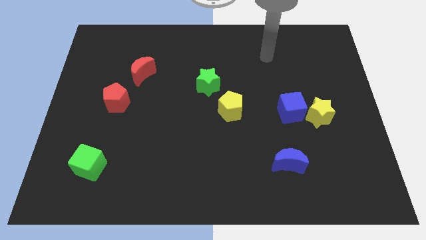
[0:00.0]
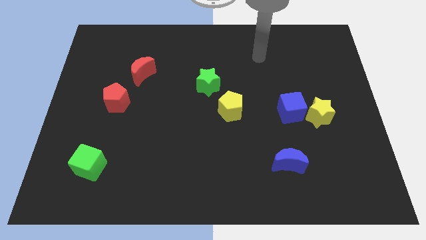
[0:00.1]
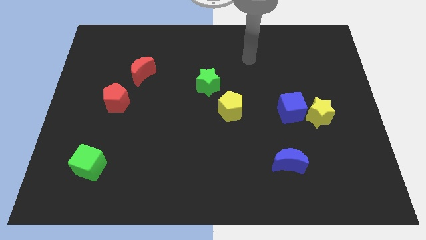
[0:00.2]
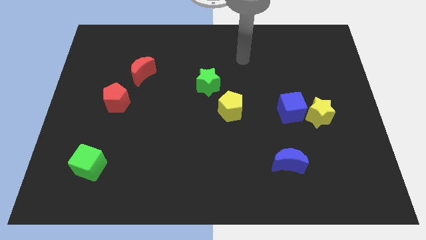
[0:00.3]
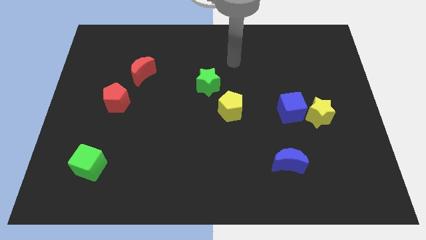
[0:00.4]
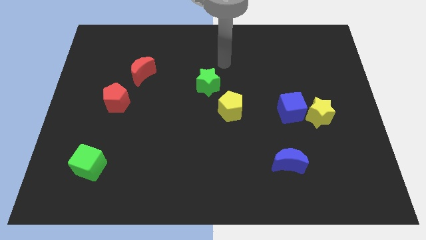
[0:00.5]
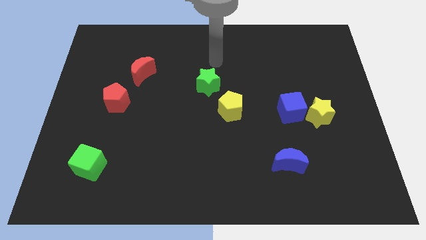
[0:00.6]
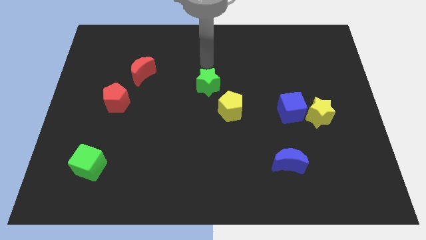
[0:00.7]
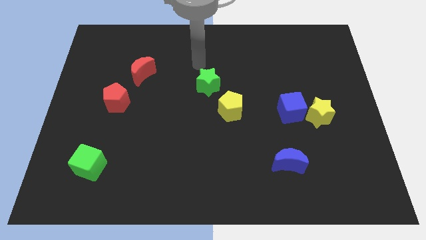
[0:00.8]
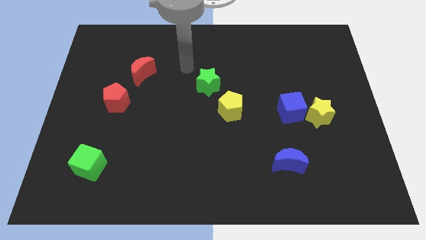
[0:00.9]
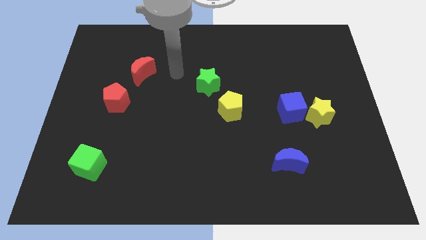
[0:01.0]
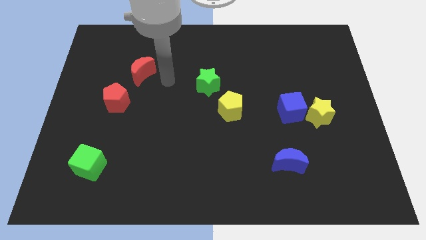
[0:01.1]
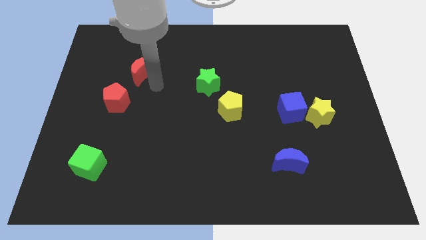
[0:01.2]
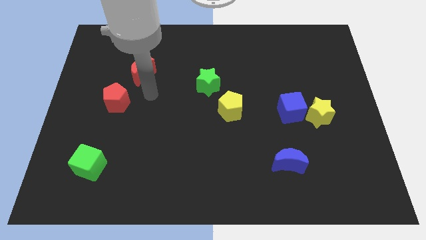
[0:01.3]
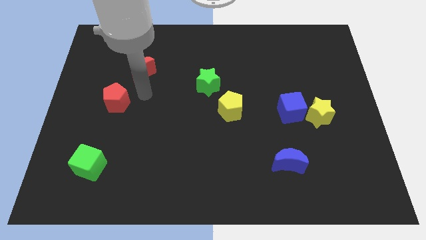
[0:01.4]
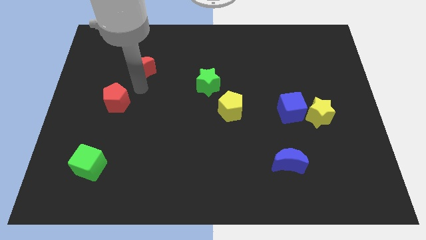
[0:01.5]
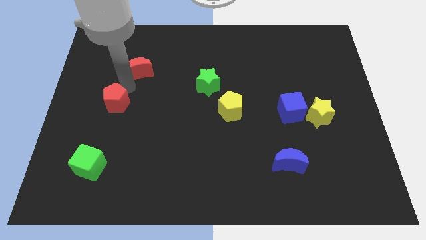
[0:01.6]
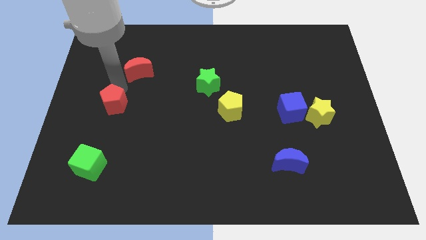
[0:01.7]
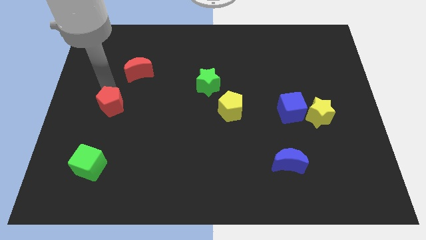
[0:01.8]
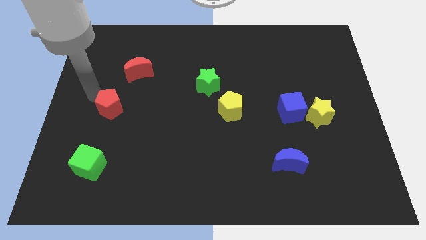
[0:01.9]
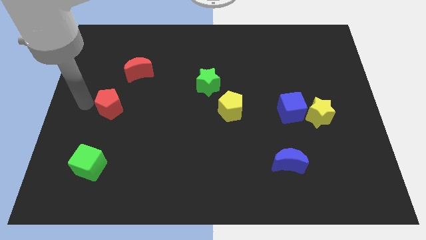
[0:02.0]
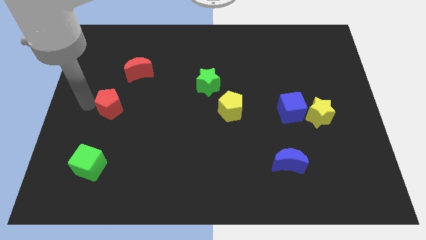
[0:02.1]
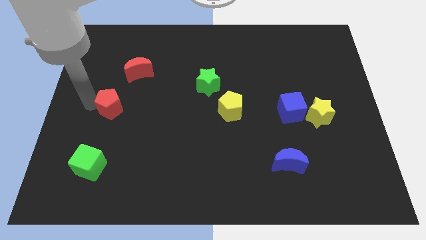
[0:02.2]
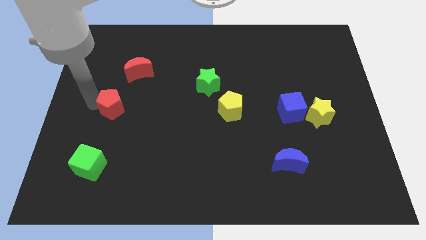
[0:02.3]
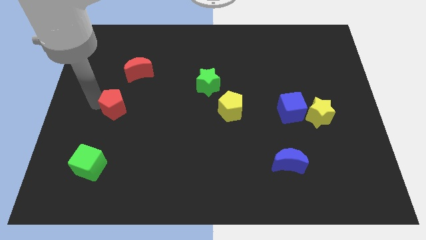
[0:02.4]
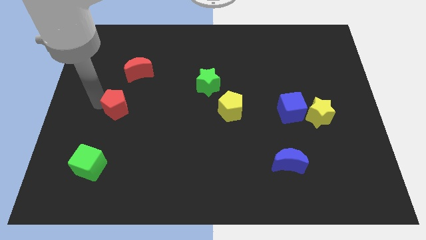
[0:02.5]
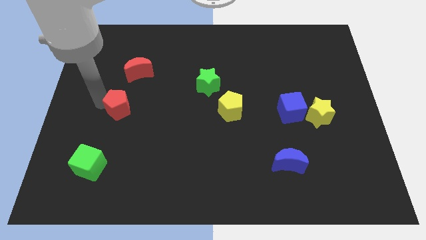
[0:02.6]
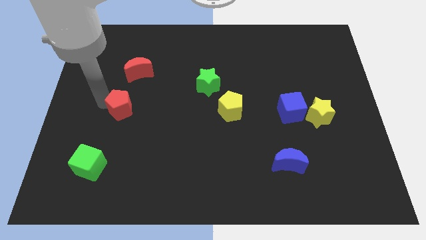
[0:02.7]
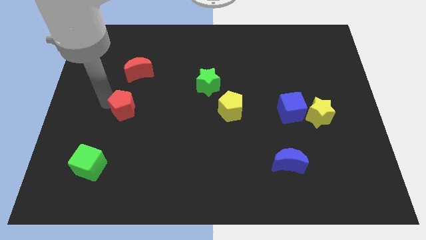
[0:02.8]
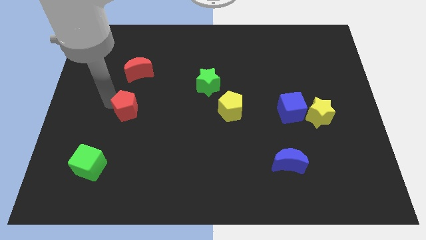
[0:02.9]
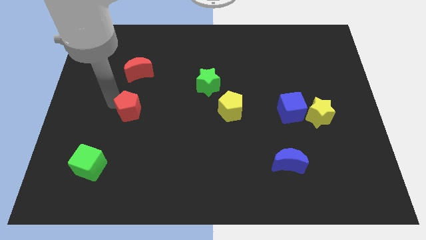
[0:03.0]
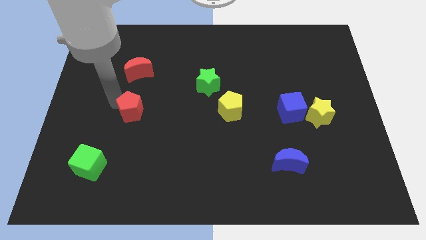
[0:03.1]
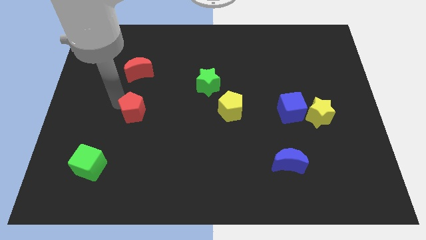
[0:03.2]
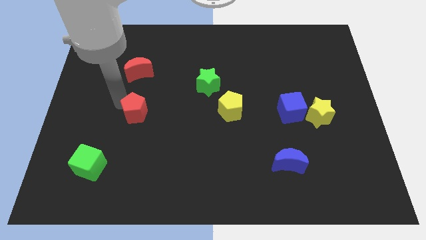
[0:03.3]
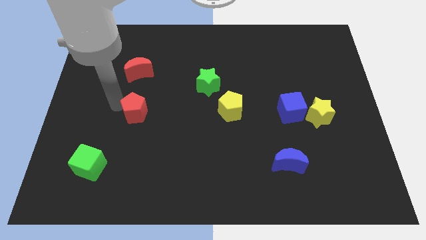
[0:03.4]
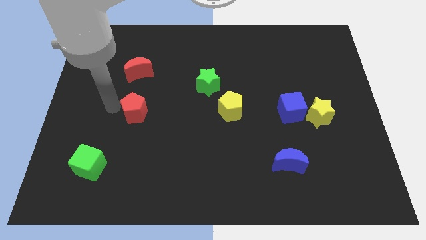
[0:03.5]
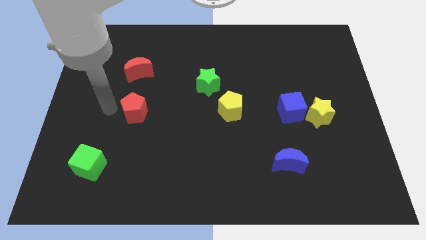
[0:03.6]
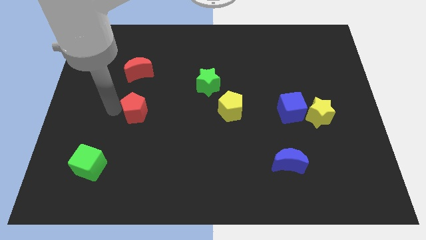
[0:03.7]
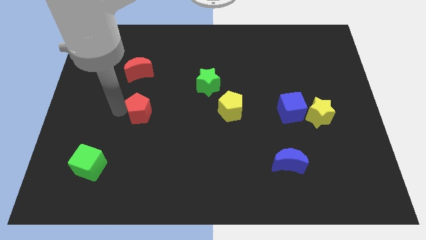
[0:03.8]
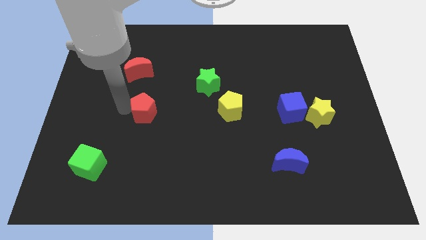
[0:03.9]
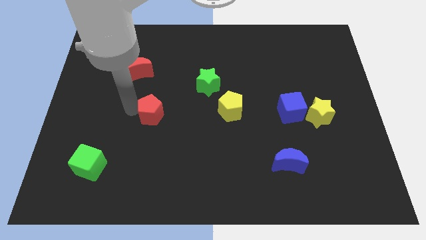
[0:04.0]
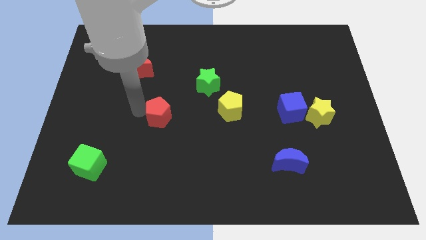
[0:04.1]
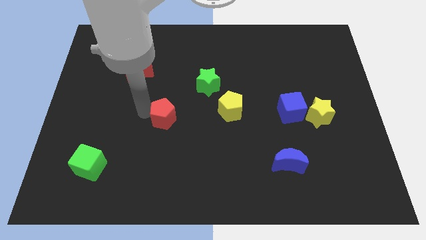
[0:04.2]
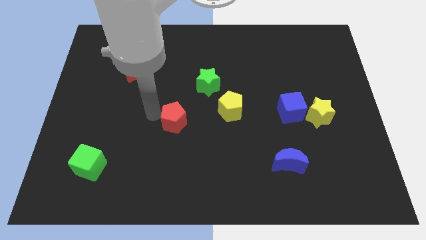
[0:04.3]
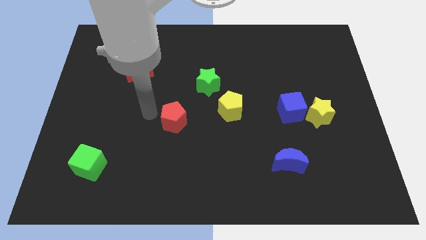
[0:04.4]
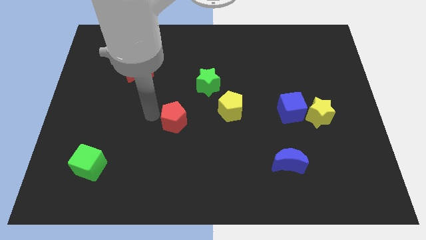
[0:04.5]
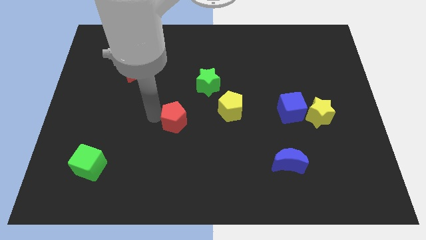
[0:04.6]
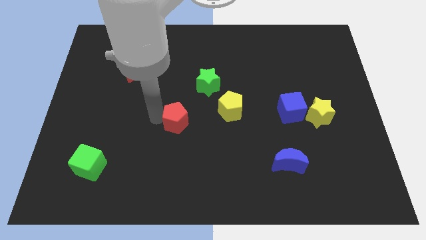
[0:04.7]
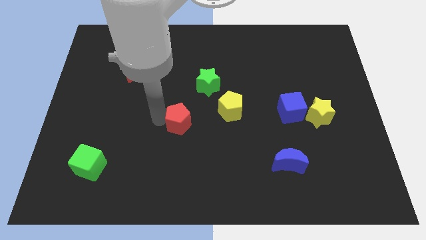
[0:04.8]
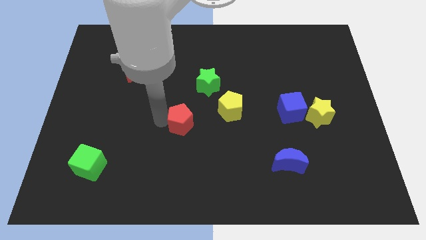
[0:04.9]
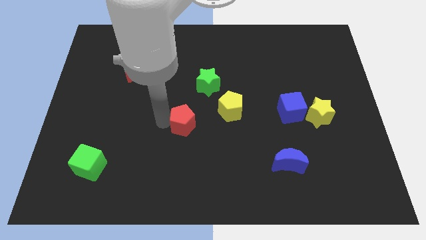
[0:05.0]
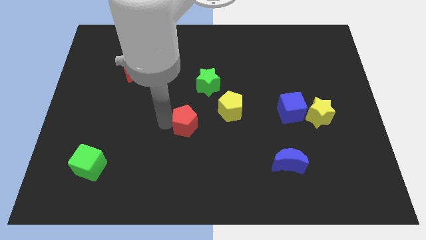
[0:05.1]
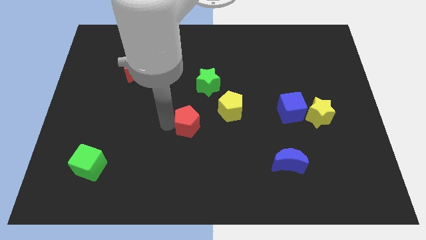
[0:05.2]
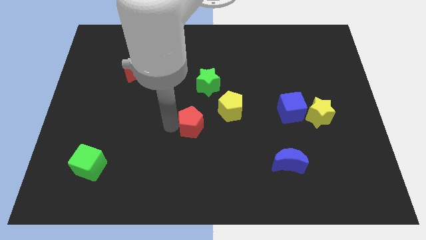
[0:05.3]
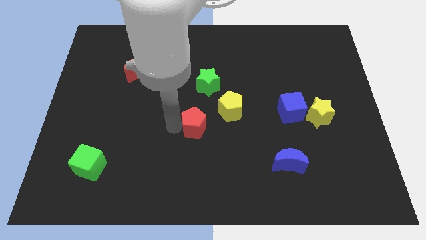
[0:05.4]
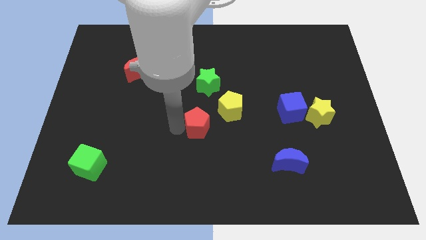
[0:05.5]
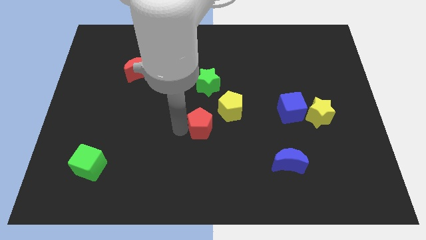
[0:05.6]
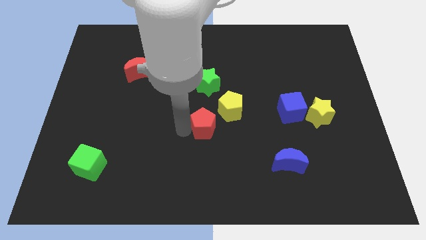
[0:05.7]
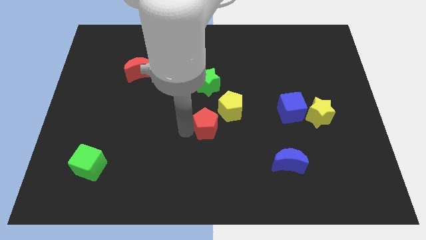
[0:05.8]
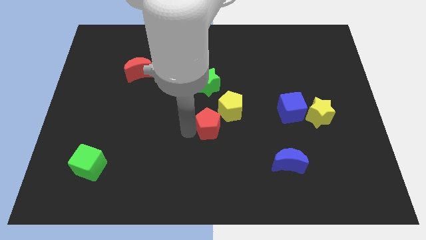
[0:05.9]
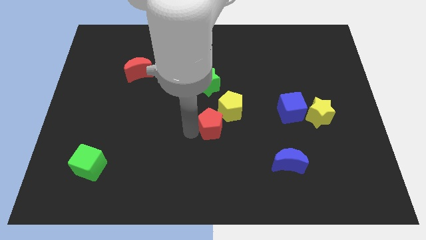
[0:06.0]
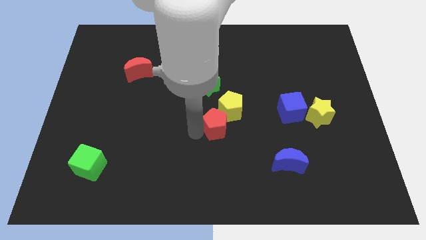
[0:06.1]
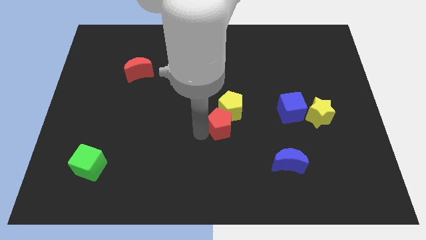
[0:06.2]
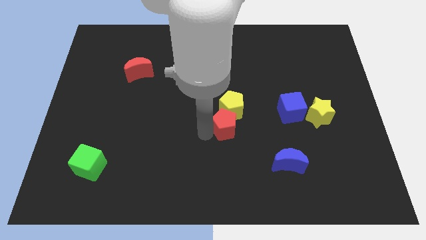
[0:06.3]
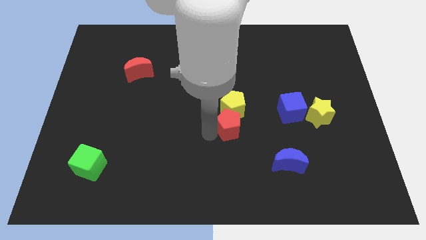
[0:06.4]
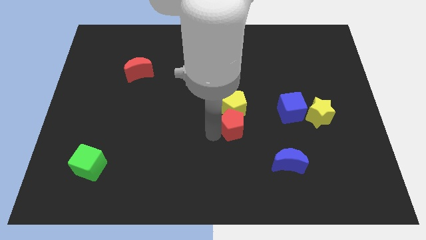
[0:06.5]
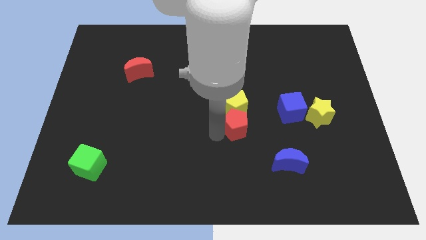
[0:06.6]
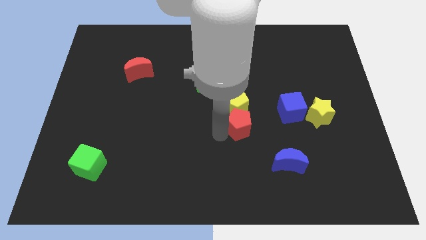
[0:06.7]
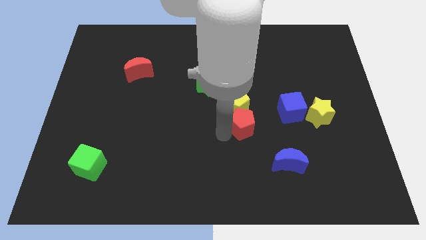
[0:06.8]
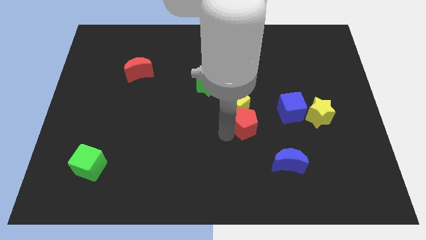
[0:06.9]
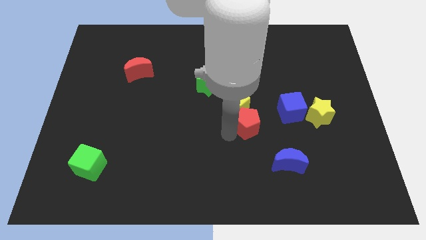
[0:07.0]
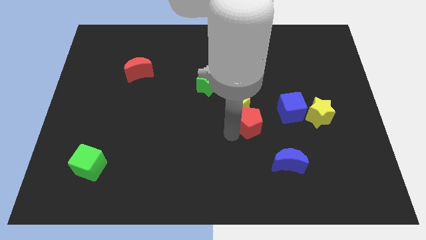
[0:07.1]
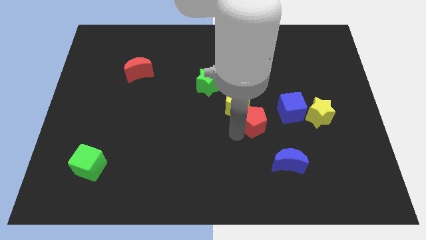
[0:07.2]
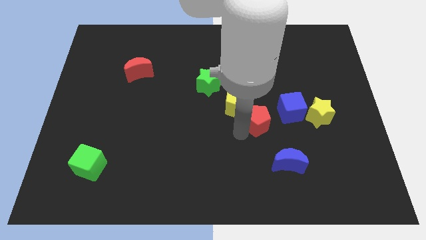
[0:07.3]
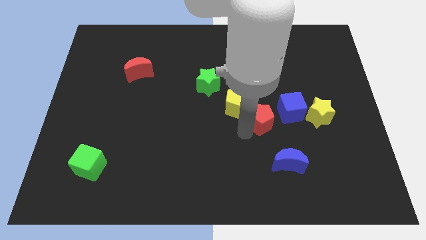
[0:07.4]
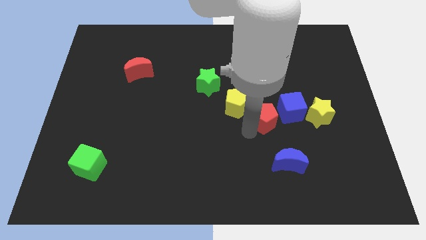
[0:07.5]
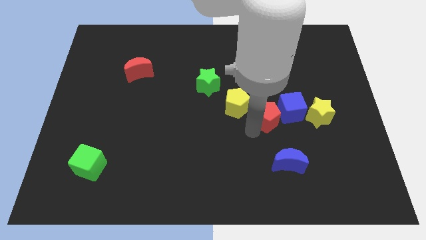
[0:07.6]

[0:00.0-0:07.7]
push the red pentagon close to the blue cube
